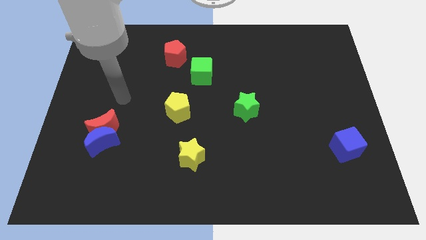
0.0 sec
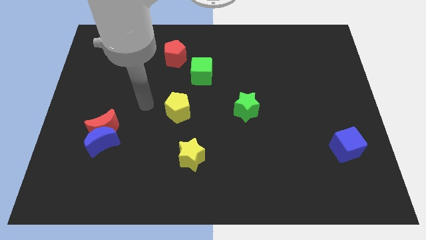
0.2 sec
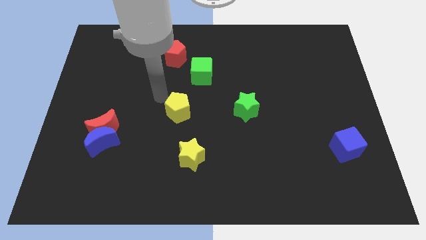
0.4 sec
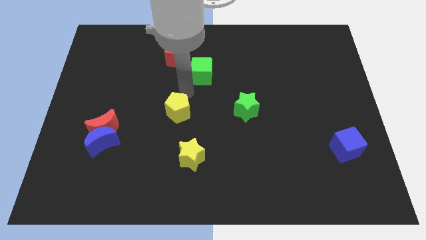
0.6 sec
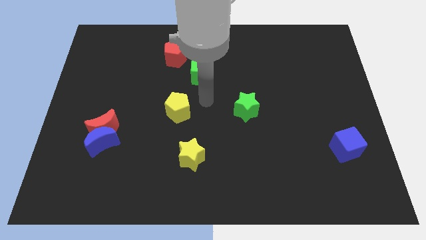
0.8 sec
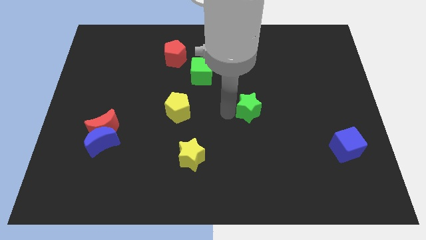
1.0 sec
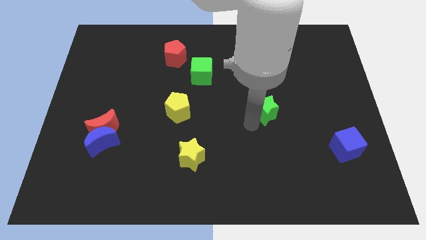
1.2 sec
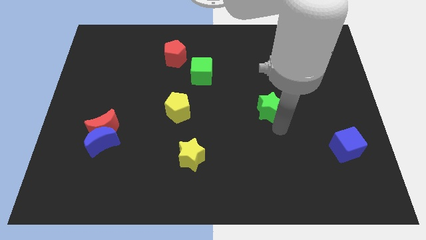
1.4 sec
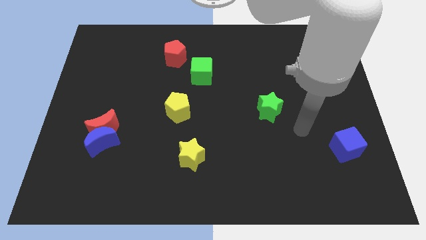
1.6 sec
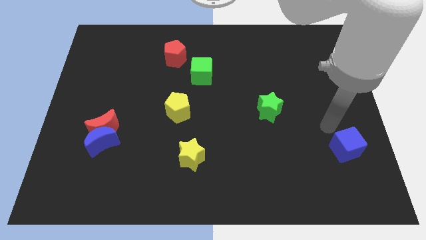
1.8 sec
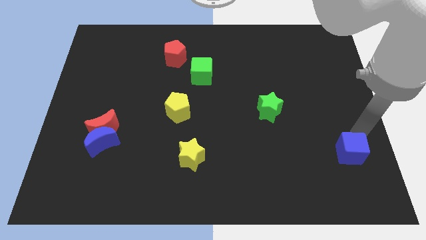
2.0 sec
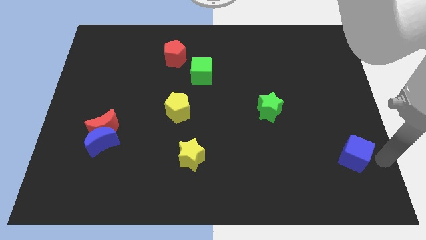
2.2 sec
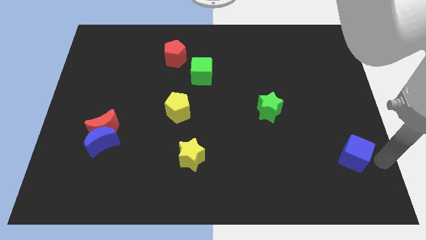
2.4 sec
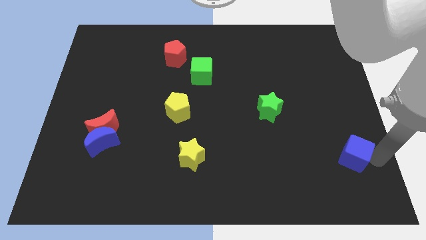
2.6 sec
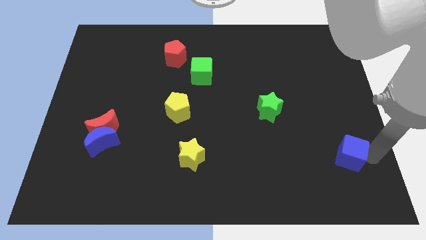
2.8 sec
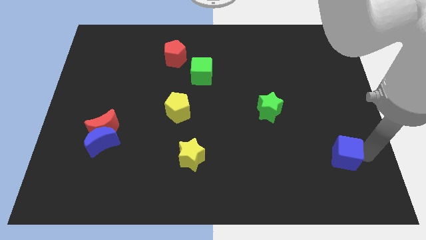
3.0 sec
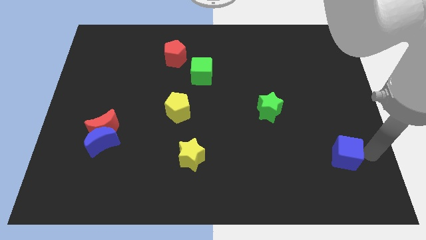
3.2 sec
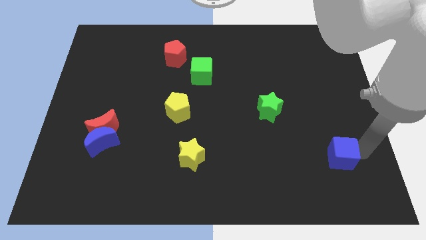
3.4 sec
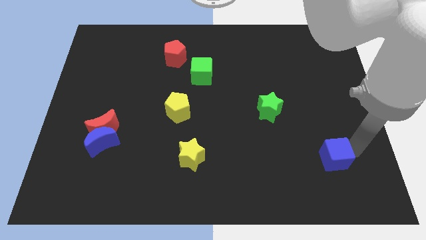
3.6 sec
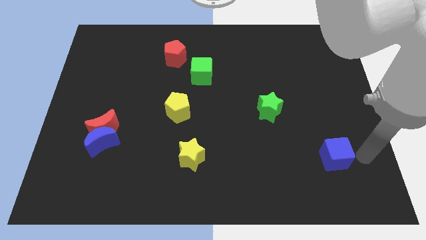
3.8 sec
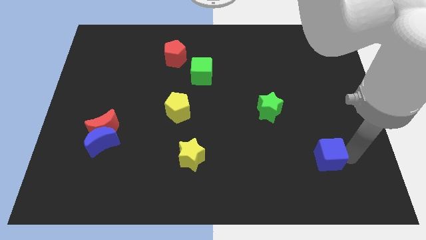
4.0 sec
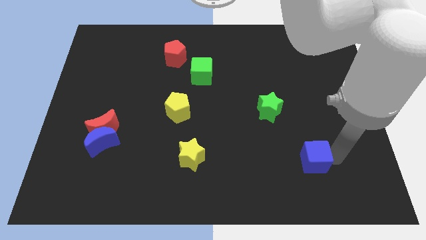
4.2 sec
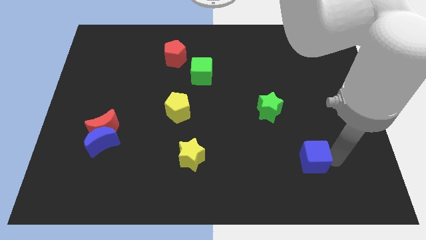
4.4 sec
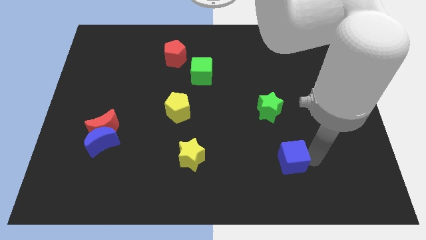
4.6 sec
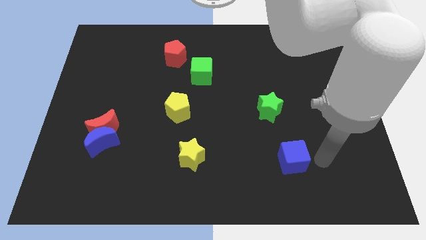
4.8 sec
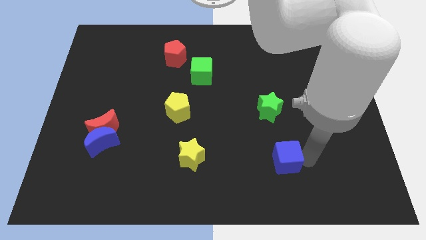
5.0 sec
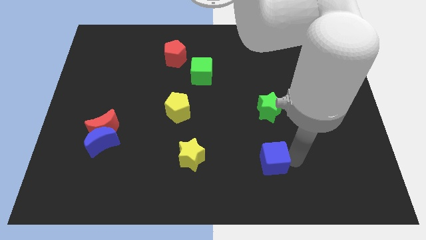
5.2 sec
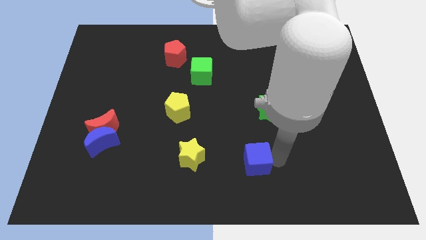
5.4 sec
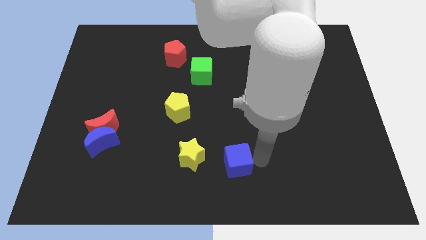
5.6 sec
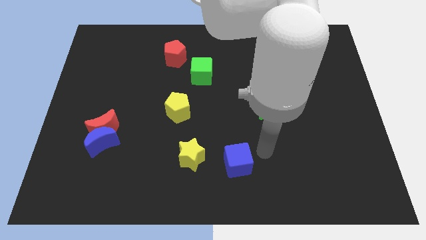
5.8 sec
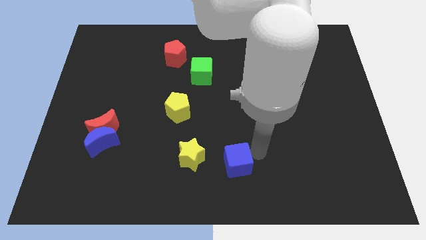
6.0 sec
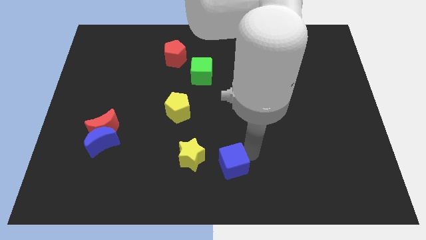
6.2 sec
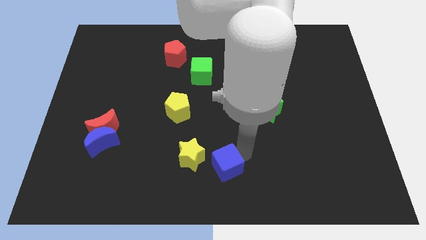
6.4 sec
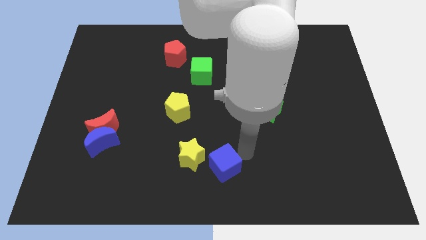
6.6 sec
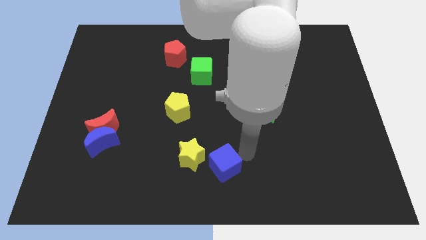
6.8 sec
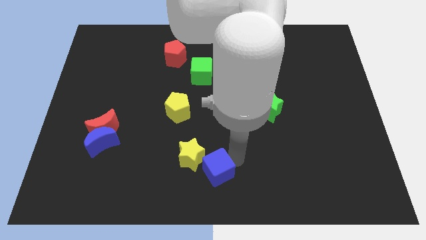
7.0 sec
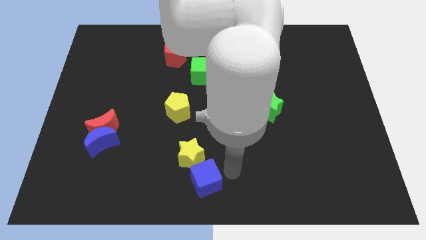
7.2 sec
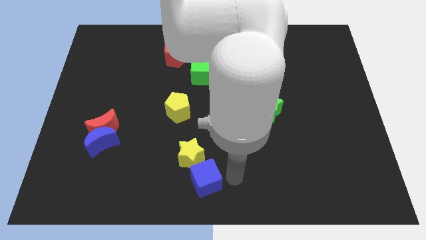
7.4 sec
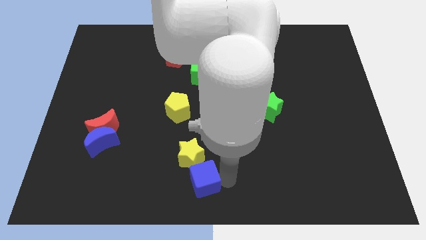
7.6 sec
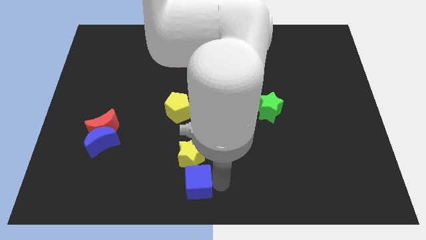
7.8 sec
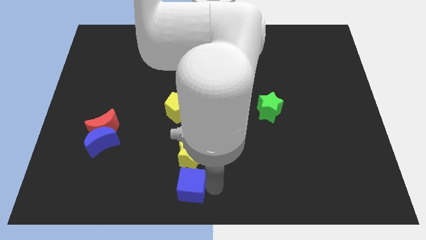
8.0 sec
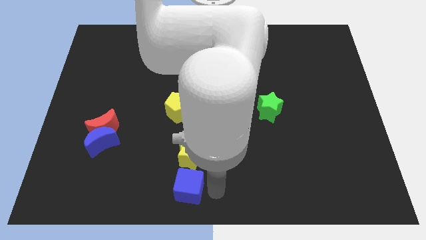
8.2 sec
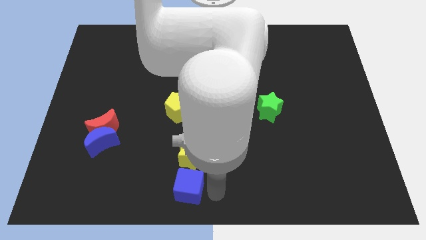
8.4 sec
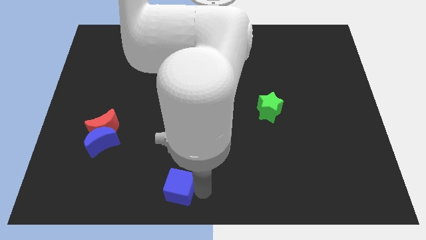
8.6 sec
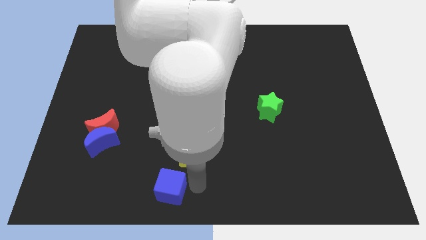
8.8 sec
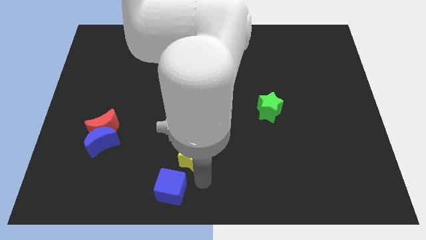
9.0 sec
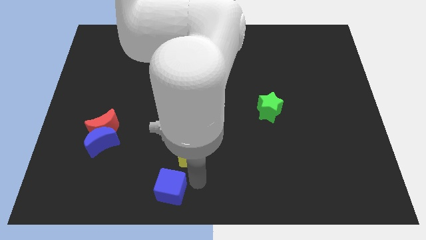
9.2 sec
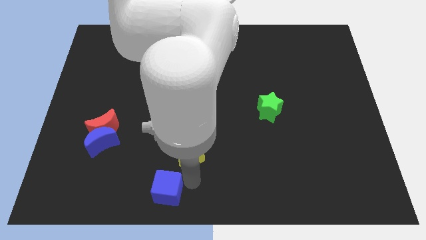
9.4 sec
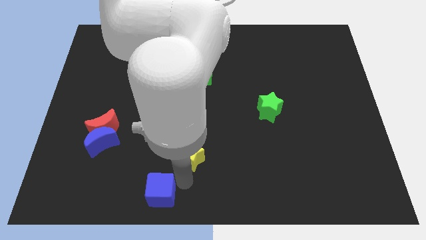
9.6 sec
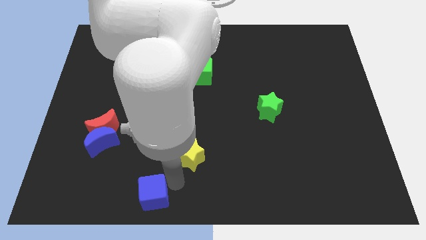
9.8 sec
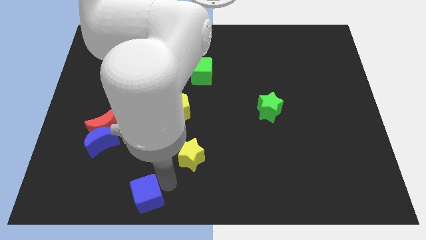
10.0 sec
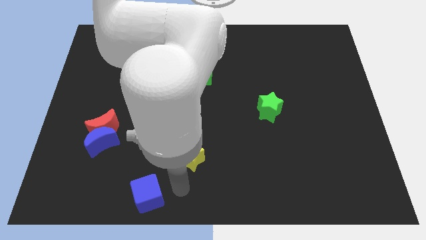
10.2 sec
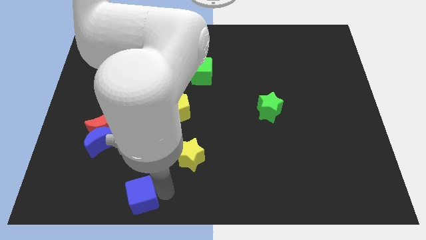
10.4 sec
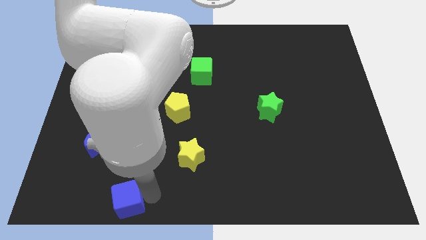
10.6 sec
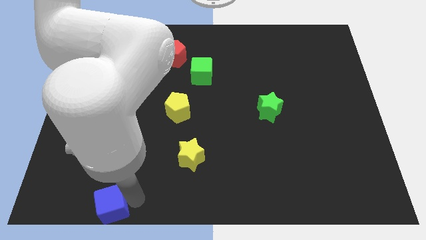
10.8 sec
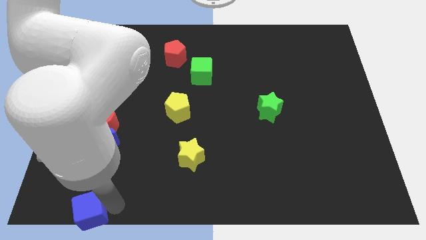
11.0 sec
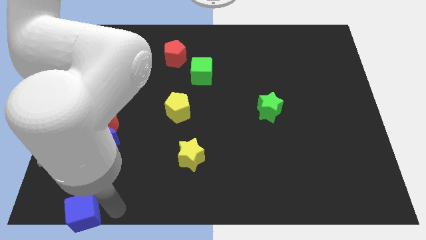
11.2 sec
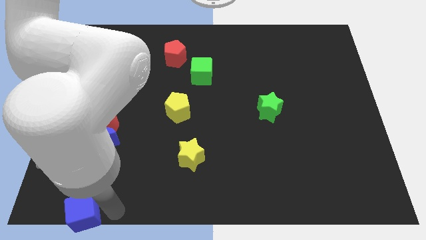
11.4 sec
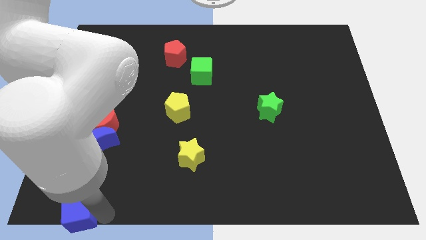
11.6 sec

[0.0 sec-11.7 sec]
slide the blue cube to the bottom left corner

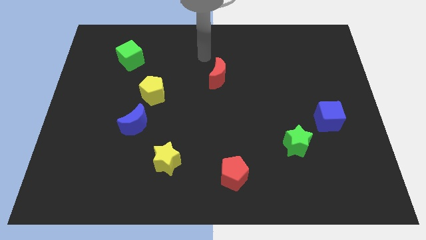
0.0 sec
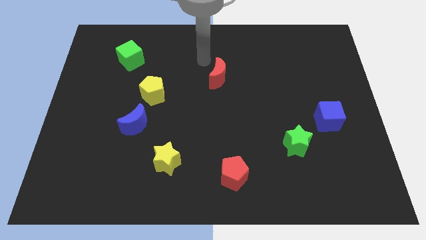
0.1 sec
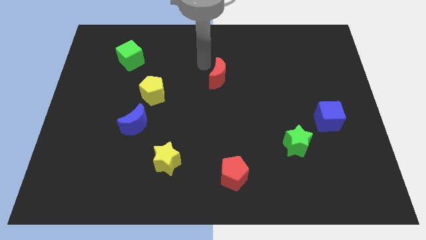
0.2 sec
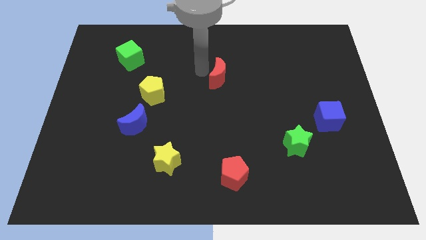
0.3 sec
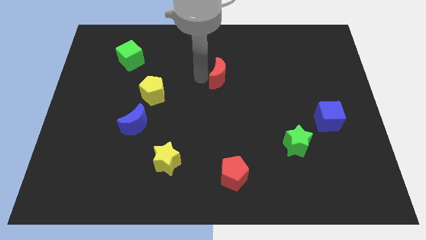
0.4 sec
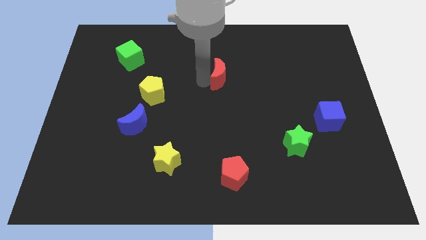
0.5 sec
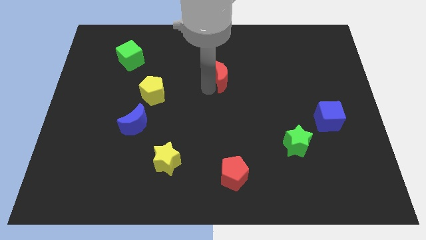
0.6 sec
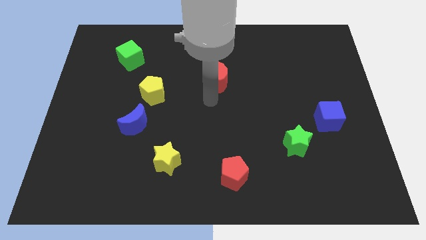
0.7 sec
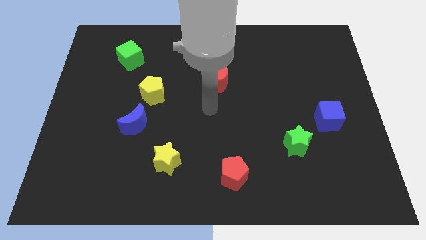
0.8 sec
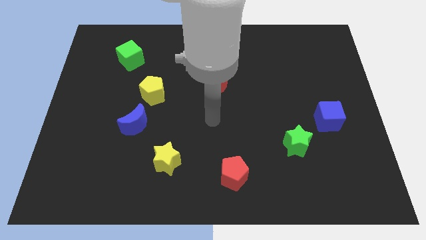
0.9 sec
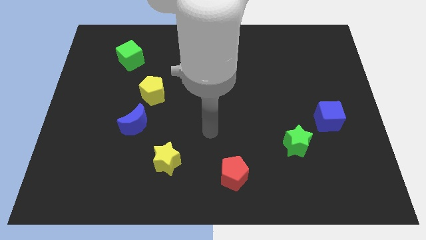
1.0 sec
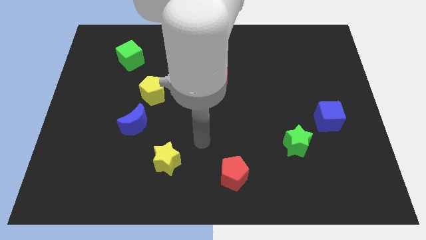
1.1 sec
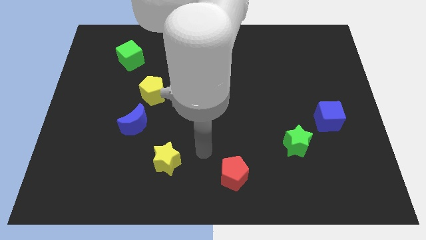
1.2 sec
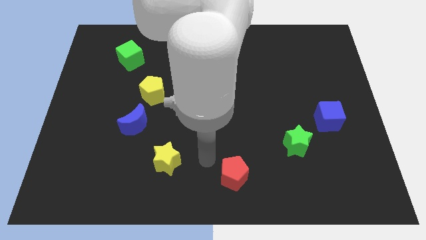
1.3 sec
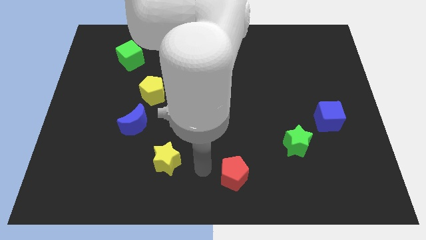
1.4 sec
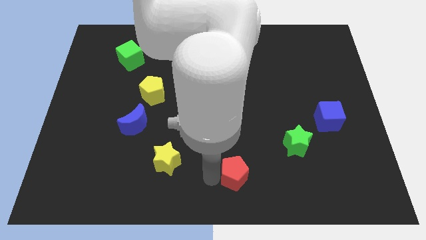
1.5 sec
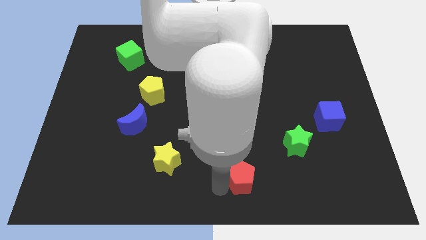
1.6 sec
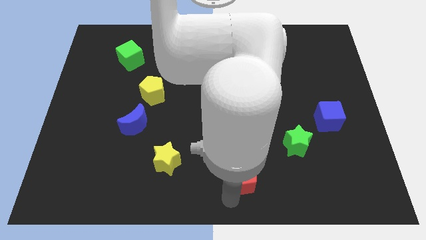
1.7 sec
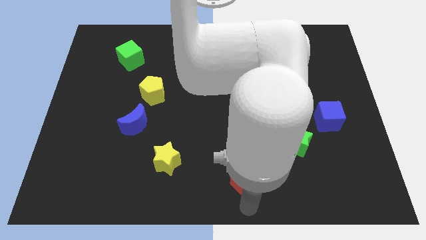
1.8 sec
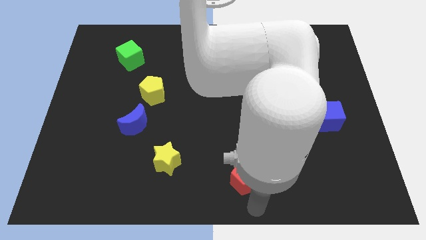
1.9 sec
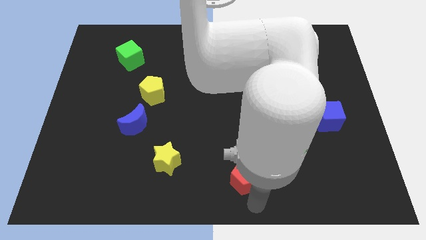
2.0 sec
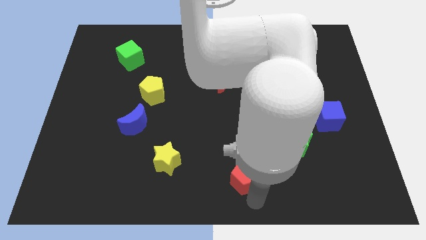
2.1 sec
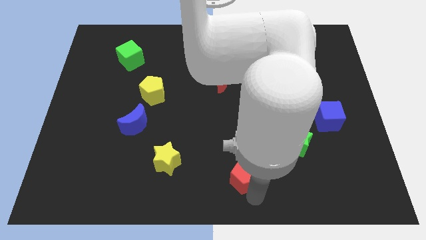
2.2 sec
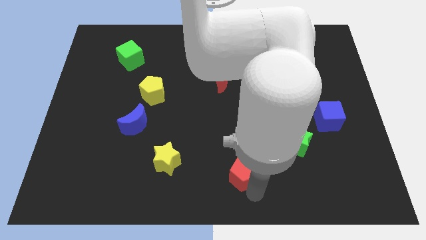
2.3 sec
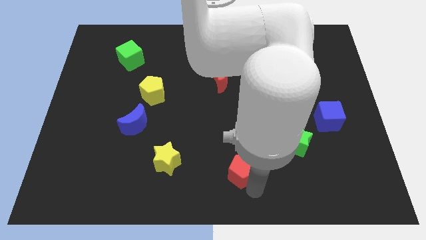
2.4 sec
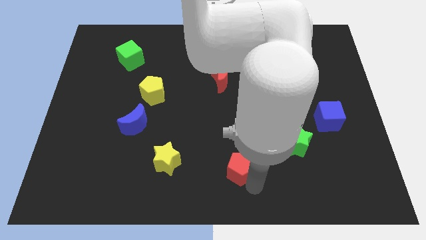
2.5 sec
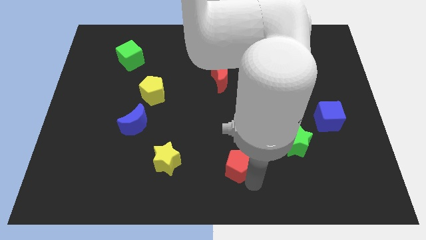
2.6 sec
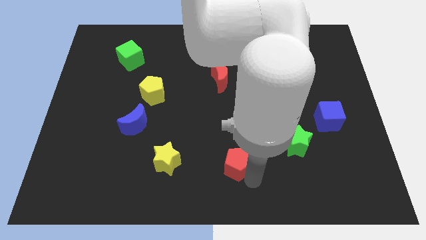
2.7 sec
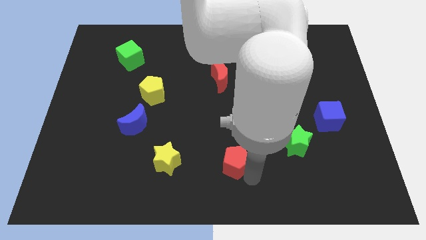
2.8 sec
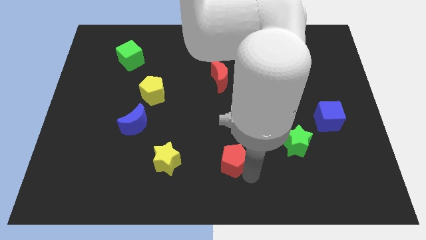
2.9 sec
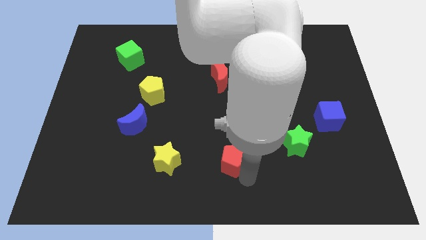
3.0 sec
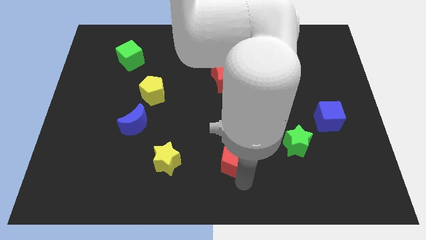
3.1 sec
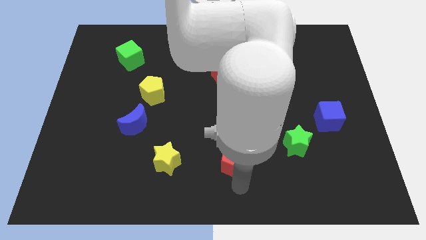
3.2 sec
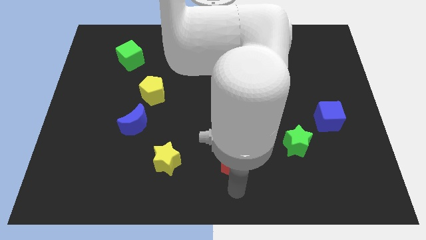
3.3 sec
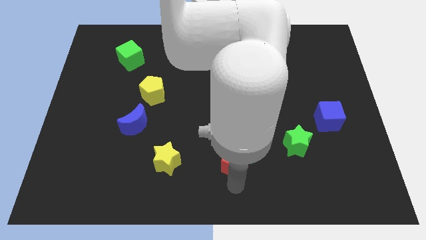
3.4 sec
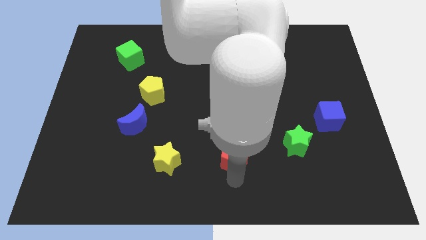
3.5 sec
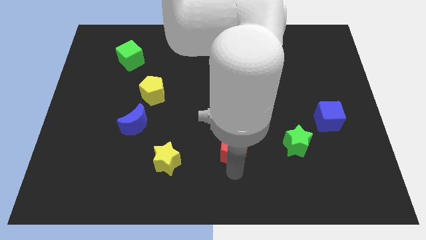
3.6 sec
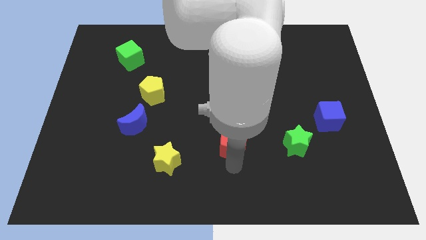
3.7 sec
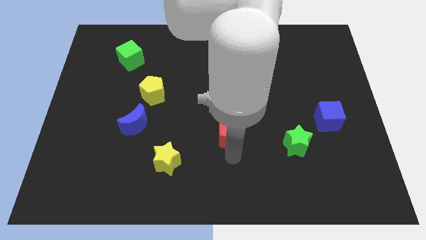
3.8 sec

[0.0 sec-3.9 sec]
push the red pentagon to the middle
